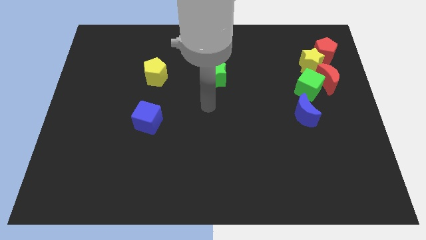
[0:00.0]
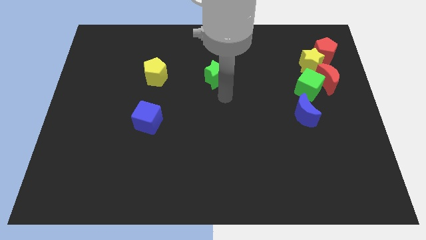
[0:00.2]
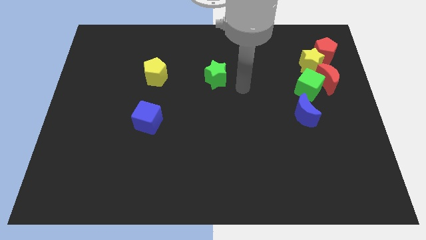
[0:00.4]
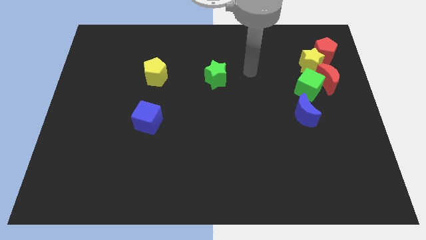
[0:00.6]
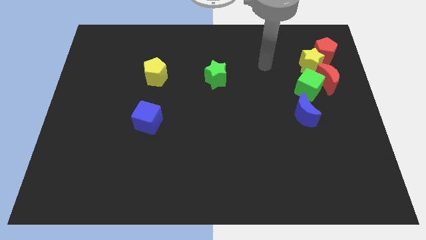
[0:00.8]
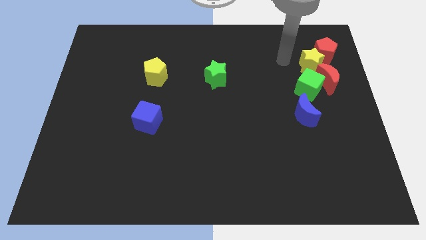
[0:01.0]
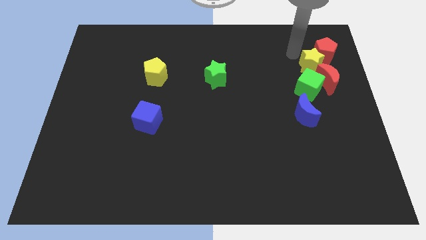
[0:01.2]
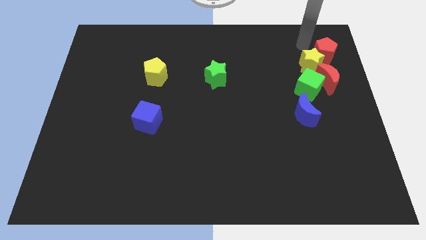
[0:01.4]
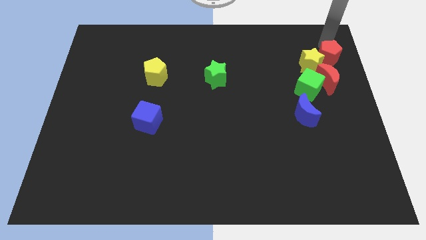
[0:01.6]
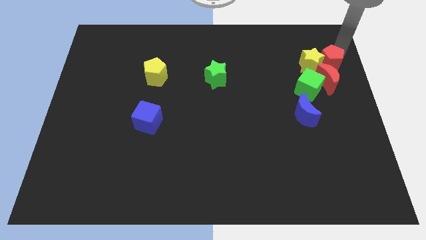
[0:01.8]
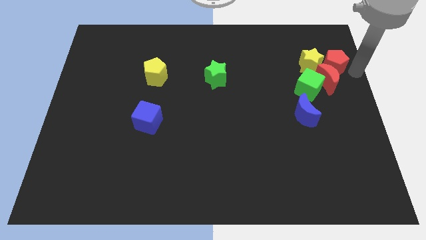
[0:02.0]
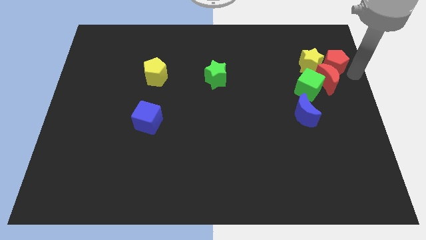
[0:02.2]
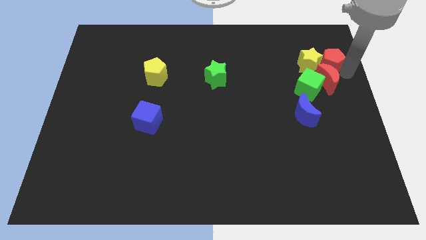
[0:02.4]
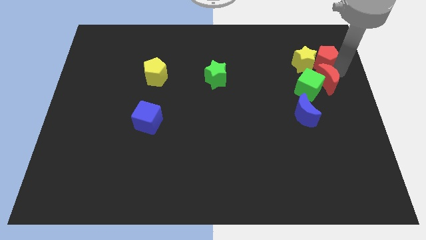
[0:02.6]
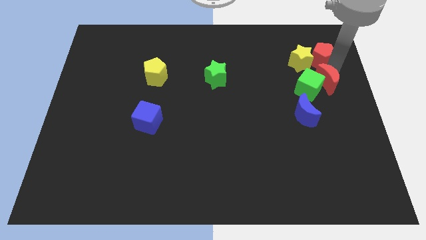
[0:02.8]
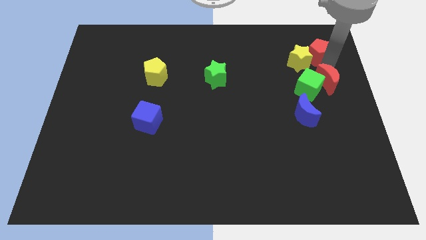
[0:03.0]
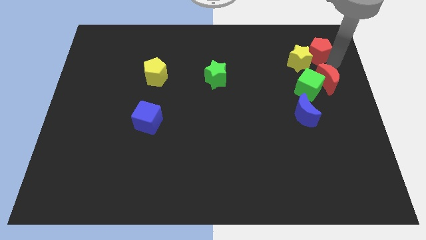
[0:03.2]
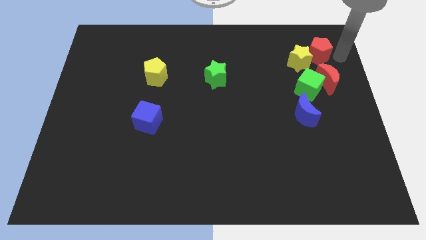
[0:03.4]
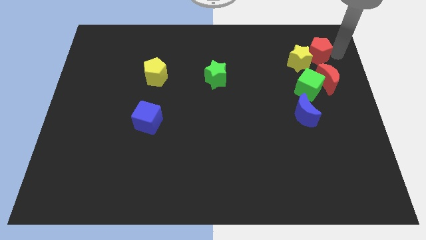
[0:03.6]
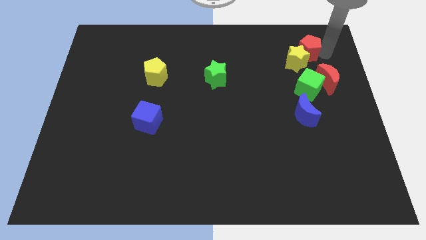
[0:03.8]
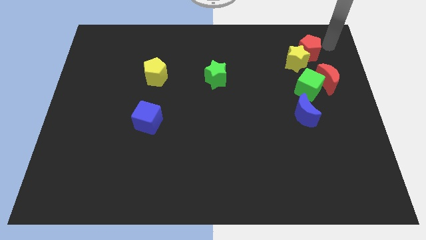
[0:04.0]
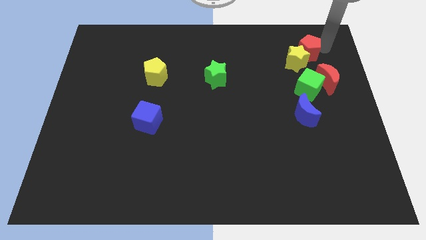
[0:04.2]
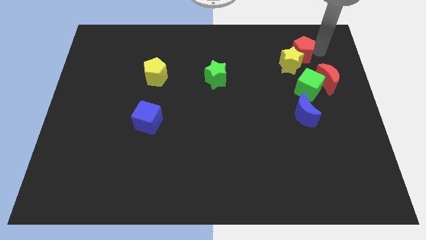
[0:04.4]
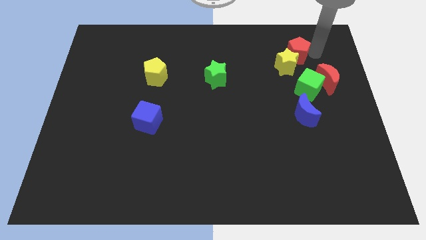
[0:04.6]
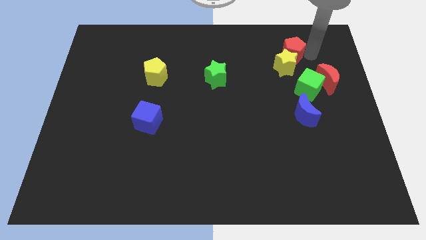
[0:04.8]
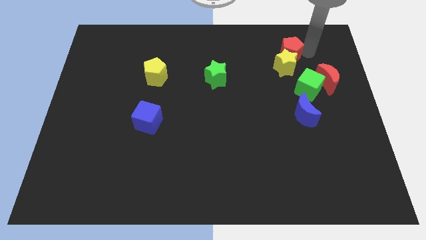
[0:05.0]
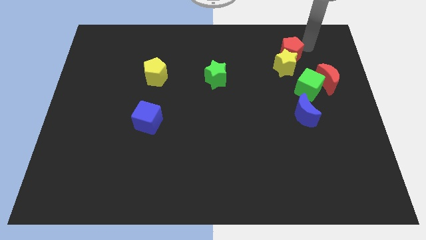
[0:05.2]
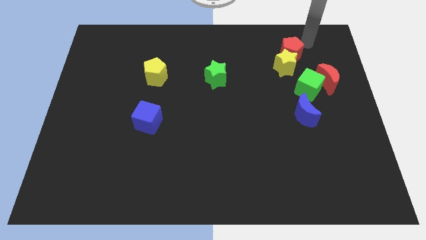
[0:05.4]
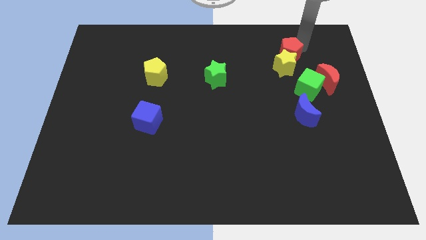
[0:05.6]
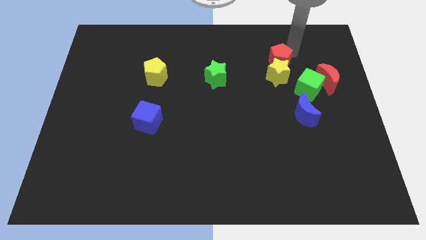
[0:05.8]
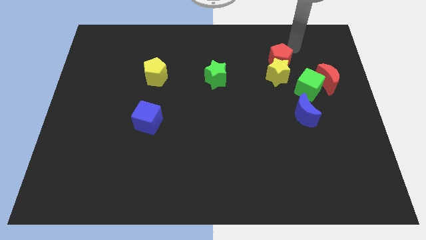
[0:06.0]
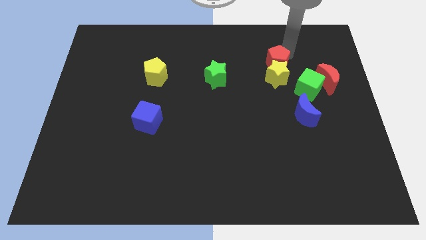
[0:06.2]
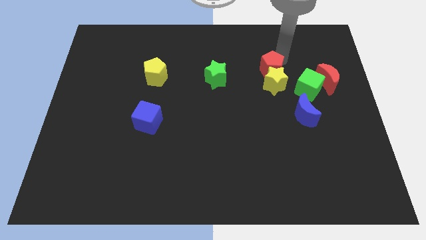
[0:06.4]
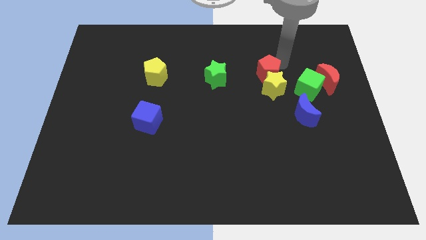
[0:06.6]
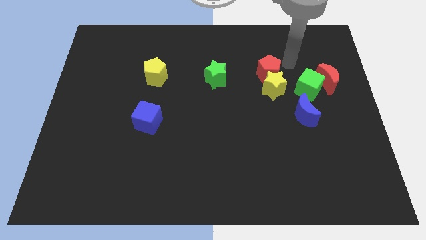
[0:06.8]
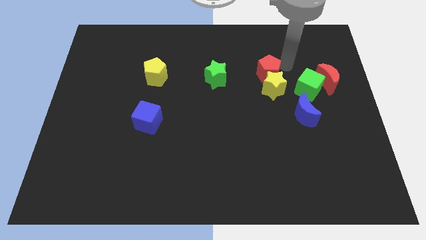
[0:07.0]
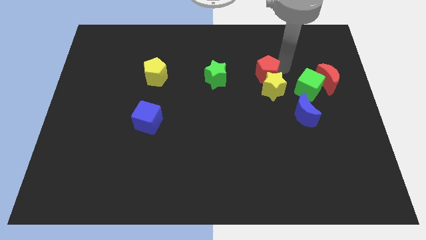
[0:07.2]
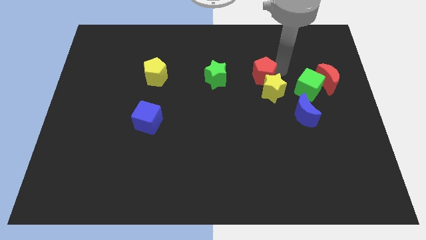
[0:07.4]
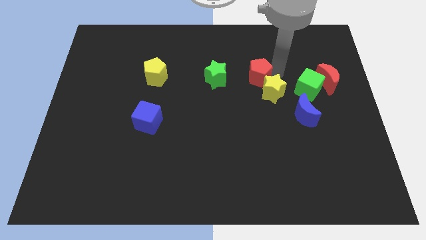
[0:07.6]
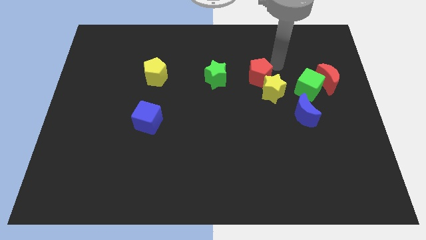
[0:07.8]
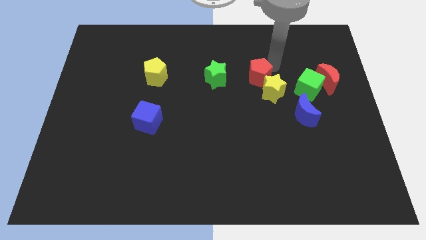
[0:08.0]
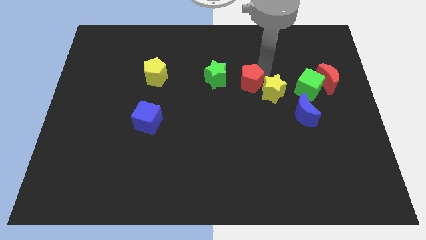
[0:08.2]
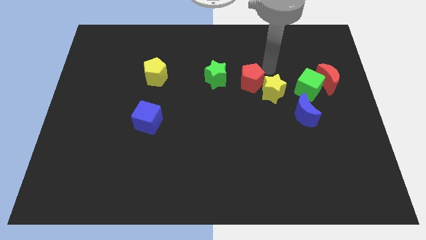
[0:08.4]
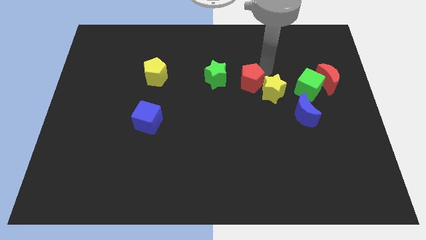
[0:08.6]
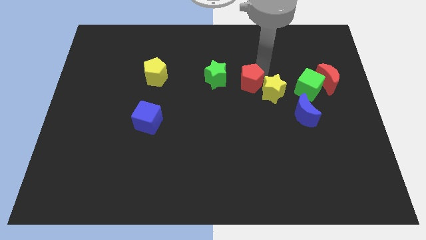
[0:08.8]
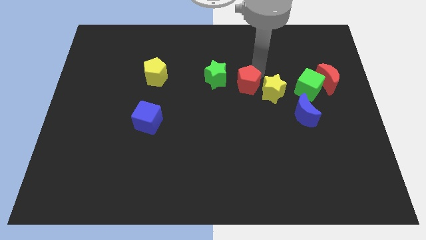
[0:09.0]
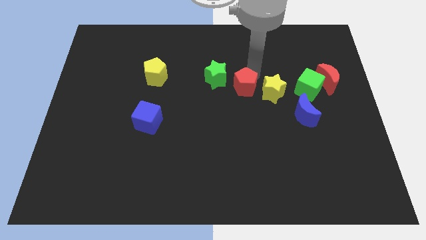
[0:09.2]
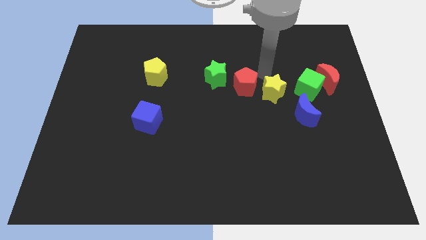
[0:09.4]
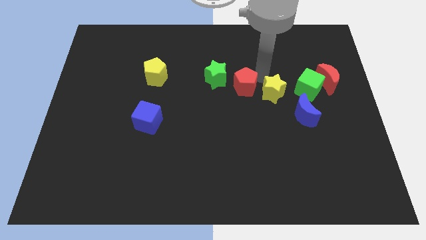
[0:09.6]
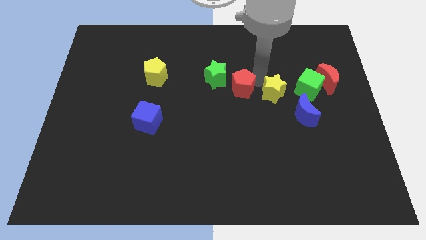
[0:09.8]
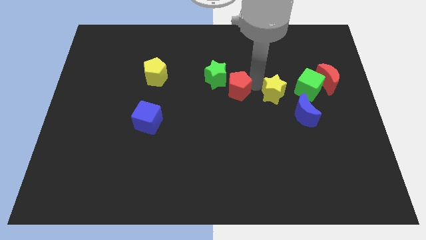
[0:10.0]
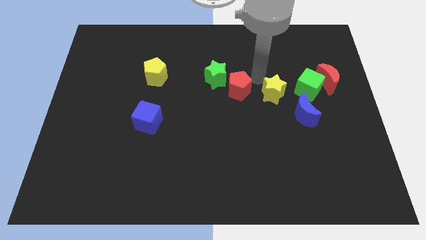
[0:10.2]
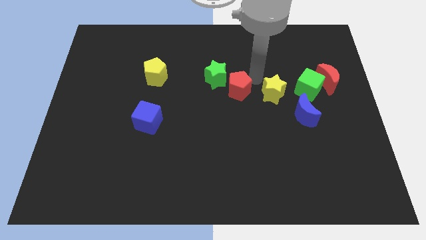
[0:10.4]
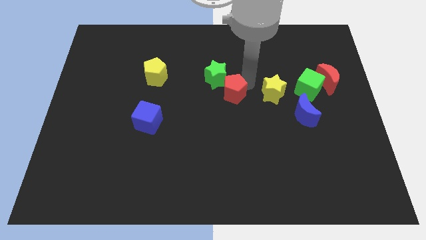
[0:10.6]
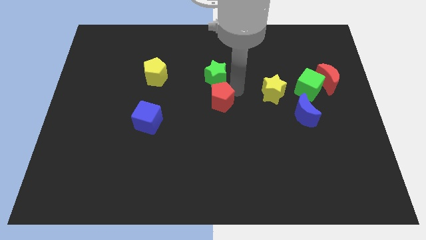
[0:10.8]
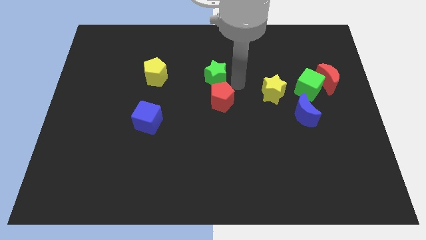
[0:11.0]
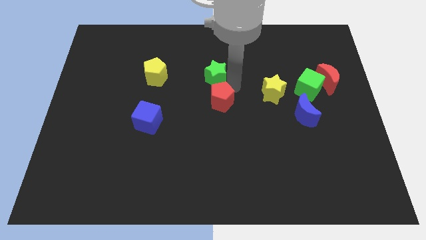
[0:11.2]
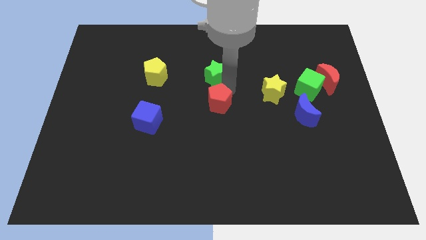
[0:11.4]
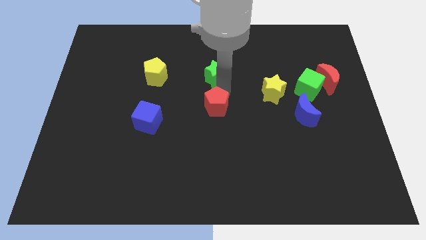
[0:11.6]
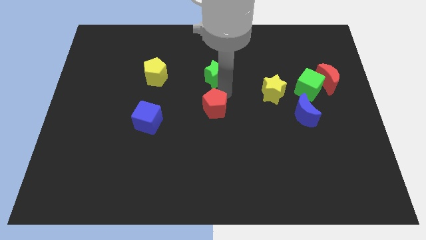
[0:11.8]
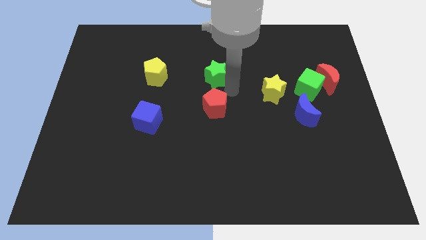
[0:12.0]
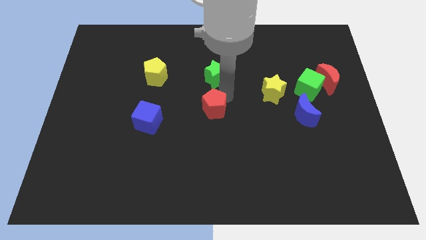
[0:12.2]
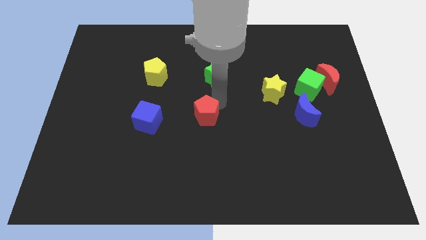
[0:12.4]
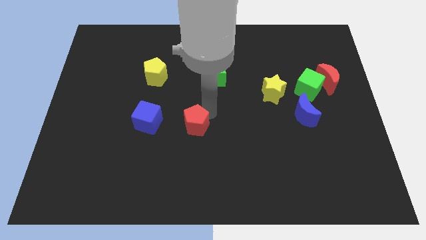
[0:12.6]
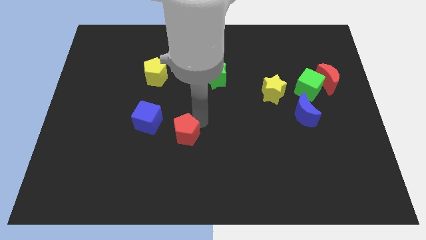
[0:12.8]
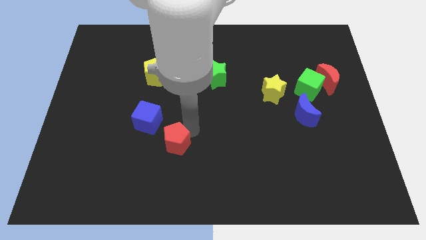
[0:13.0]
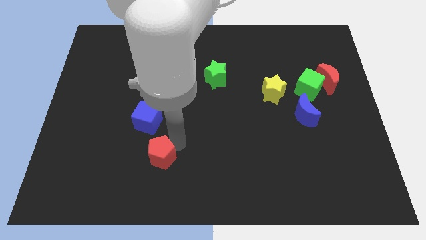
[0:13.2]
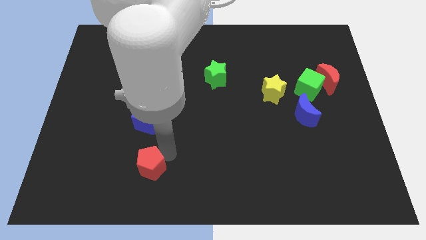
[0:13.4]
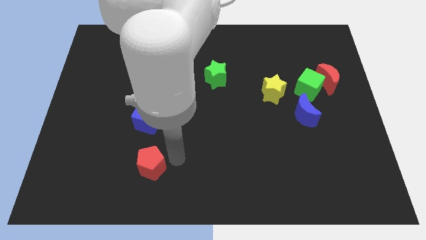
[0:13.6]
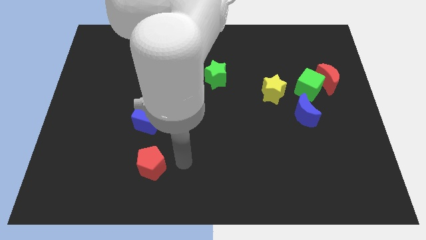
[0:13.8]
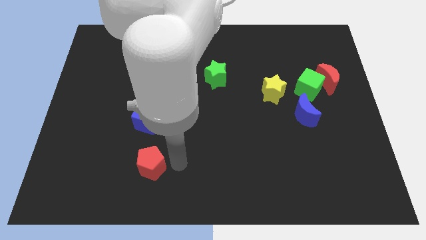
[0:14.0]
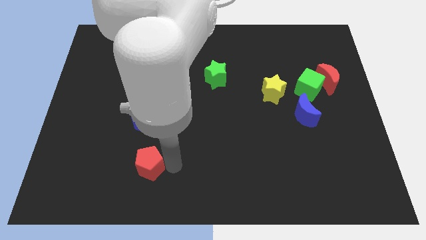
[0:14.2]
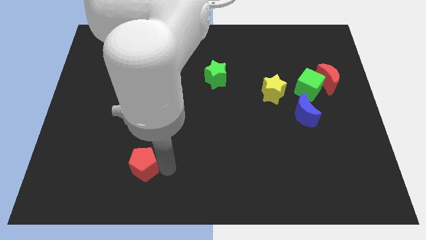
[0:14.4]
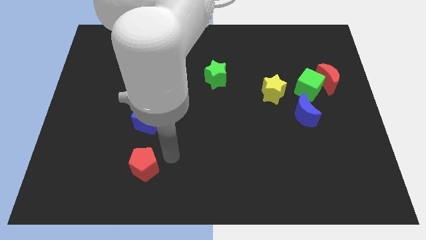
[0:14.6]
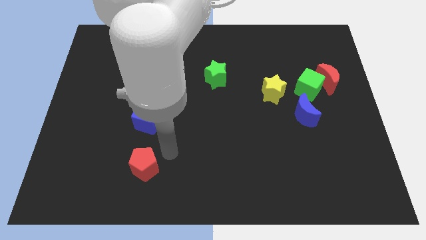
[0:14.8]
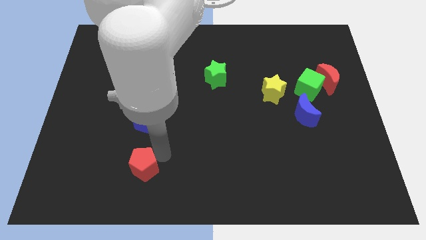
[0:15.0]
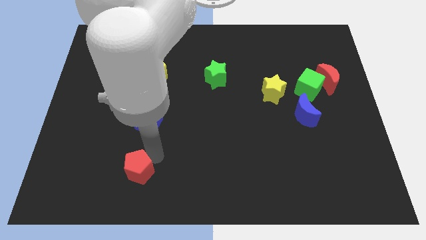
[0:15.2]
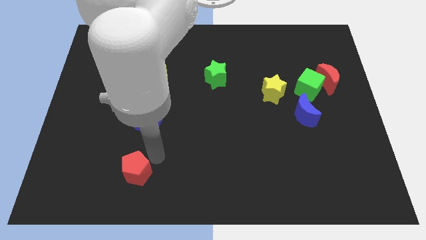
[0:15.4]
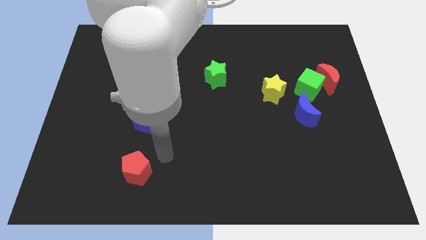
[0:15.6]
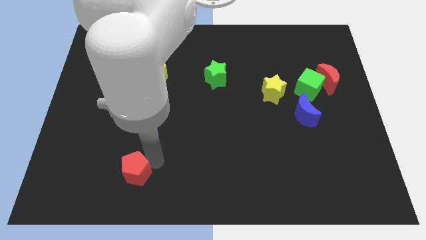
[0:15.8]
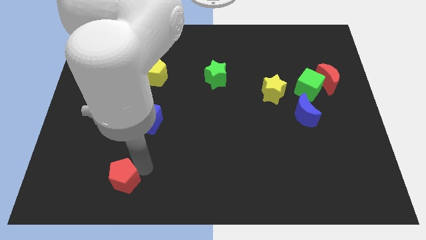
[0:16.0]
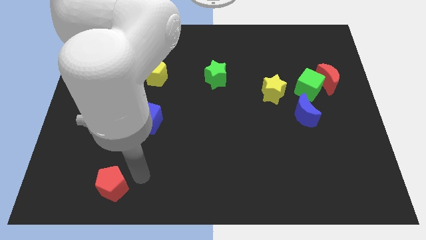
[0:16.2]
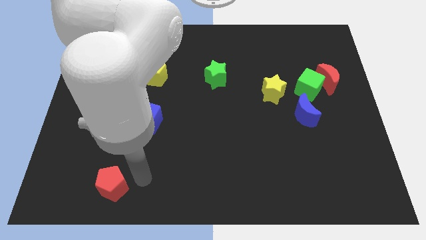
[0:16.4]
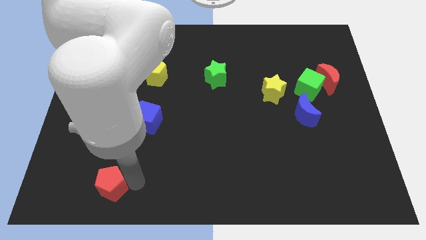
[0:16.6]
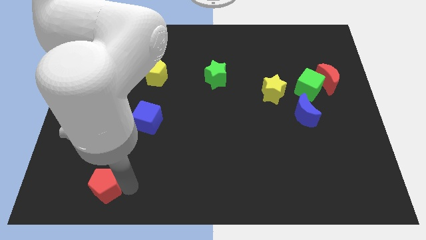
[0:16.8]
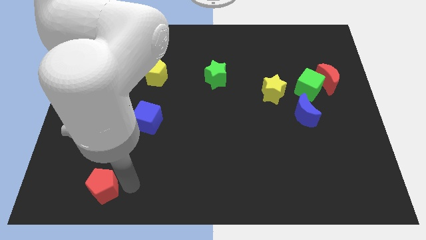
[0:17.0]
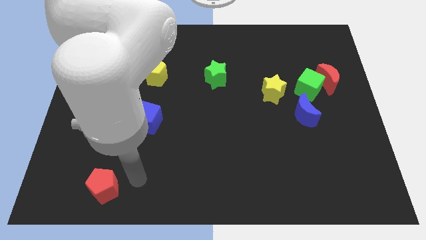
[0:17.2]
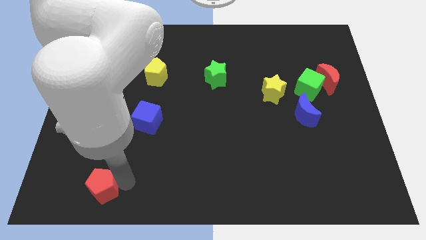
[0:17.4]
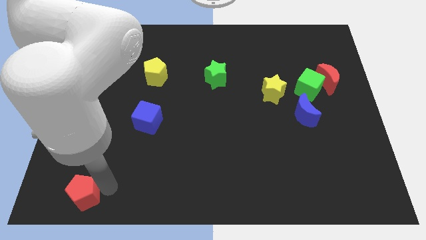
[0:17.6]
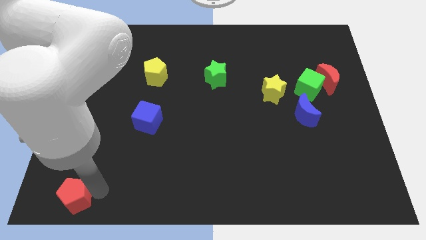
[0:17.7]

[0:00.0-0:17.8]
move the red pentagon to the bottom left corner
